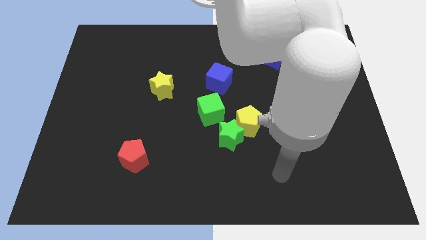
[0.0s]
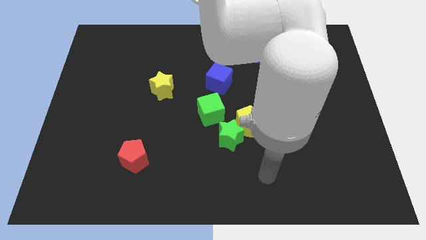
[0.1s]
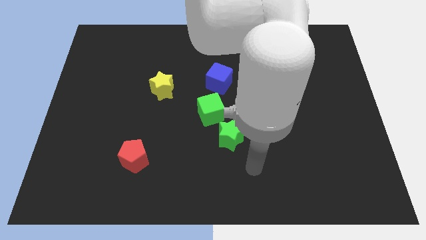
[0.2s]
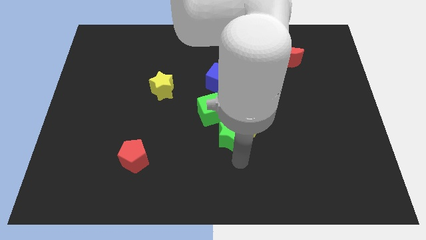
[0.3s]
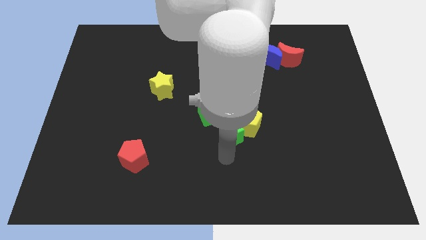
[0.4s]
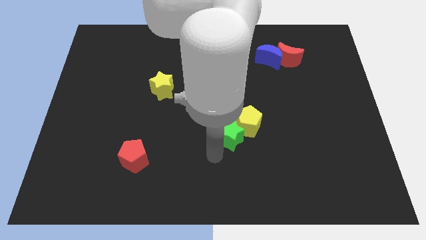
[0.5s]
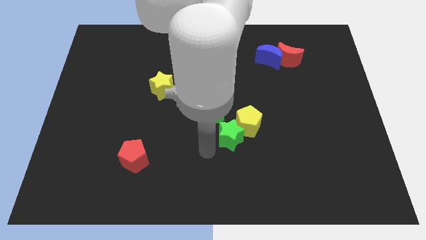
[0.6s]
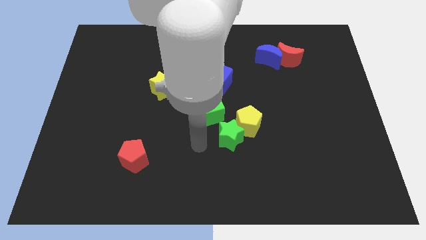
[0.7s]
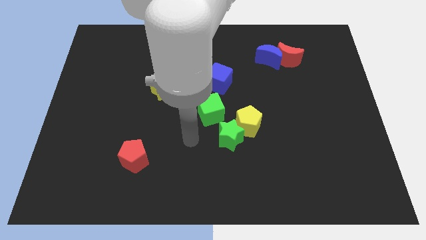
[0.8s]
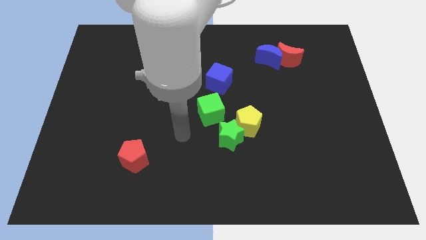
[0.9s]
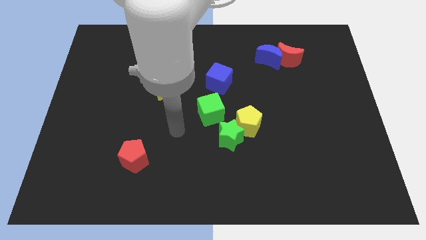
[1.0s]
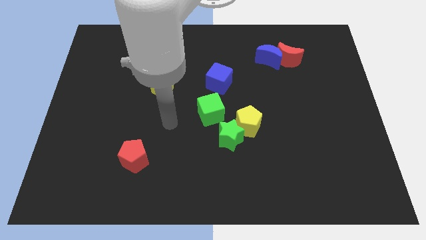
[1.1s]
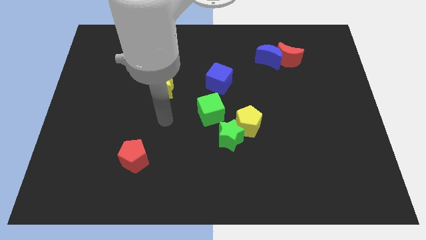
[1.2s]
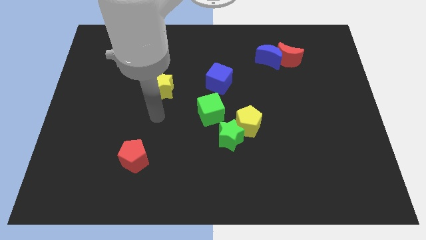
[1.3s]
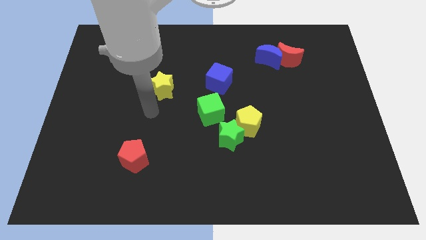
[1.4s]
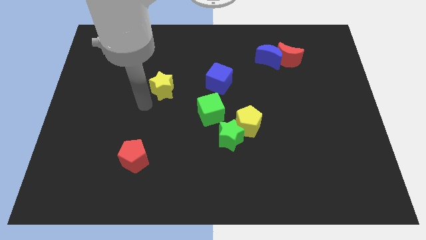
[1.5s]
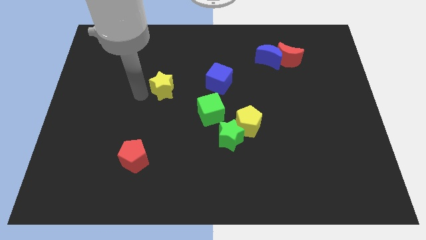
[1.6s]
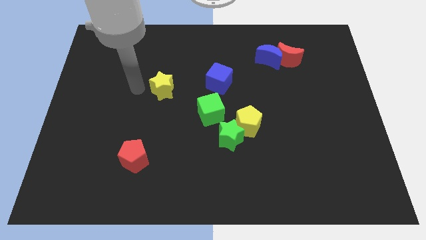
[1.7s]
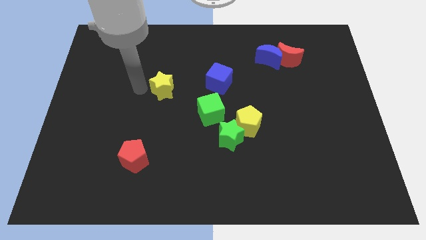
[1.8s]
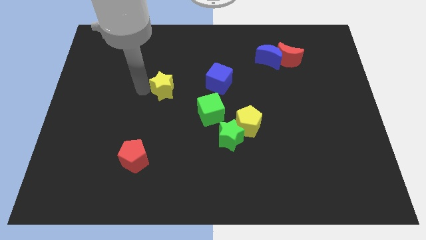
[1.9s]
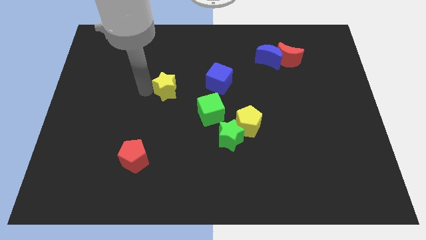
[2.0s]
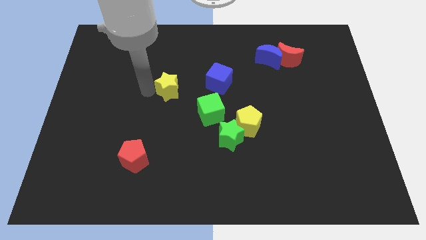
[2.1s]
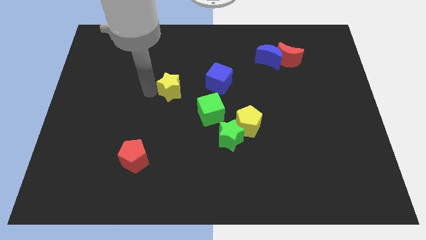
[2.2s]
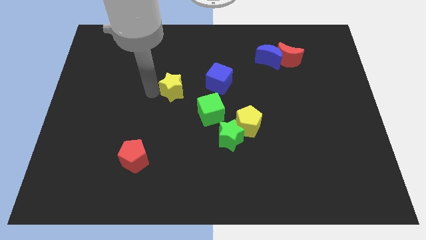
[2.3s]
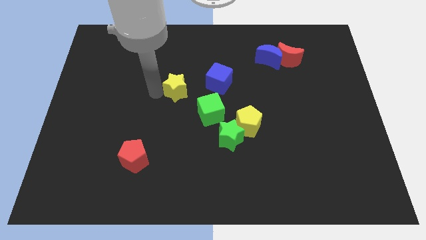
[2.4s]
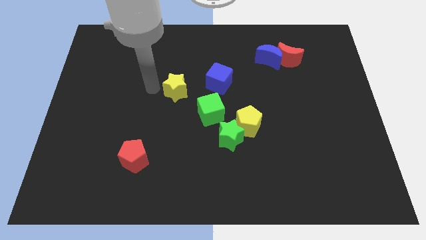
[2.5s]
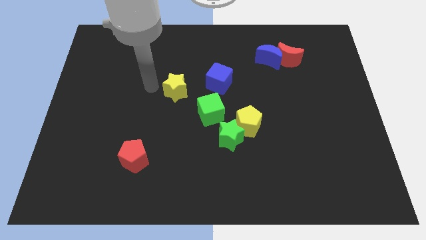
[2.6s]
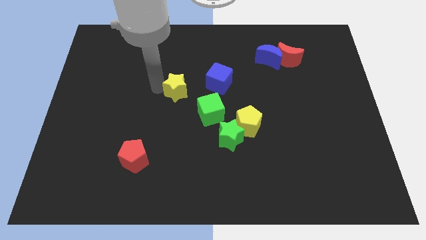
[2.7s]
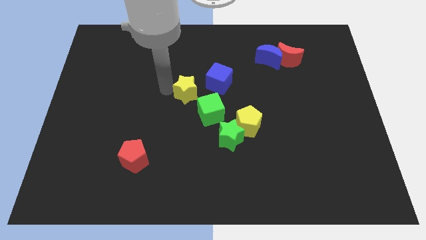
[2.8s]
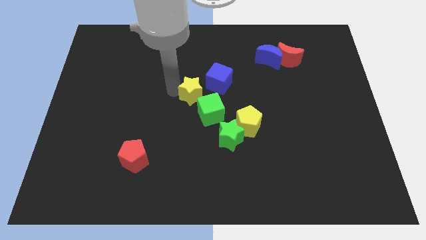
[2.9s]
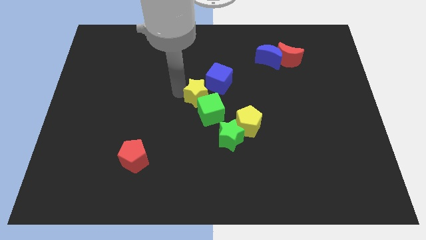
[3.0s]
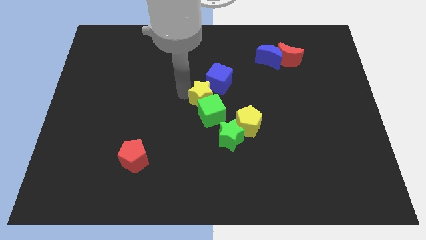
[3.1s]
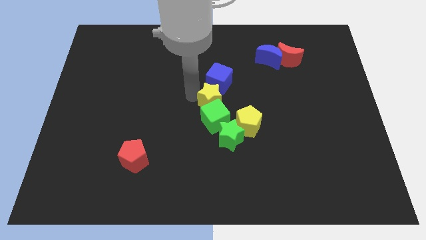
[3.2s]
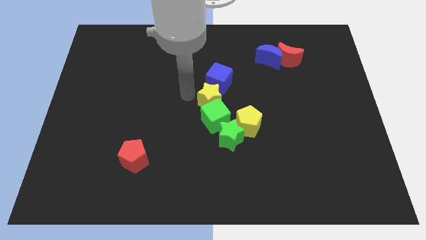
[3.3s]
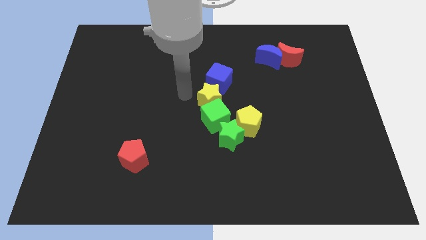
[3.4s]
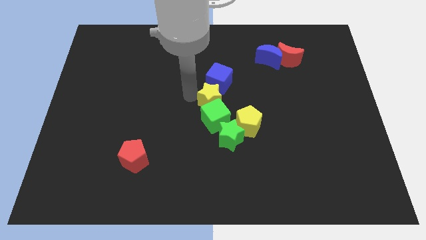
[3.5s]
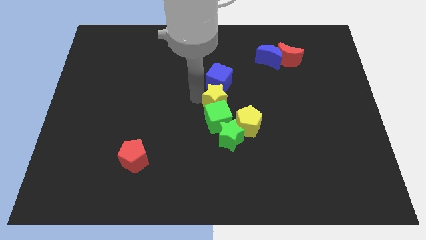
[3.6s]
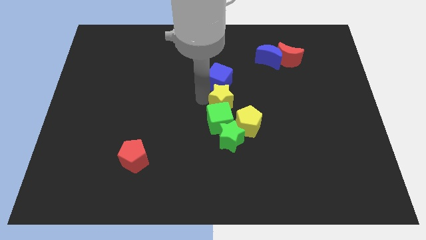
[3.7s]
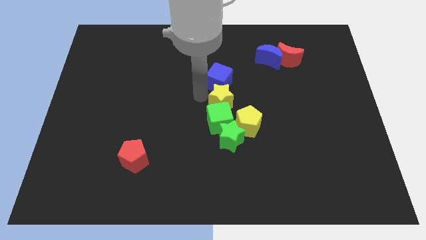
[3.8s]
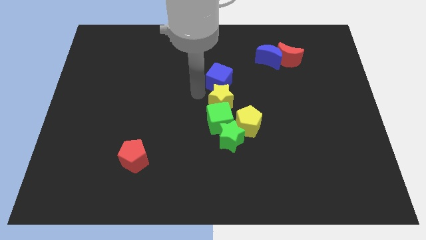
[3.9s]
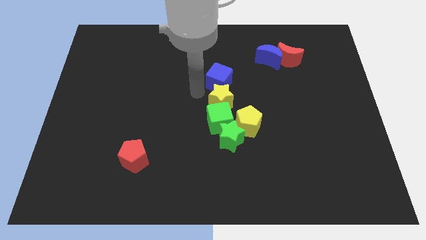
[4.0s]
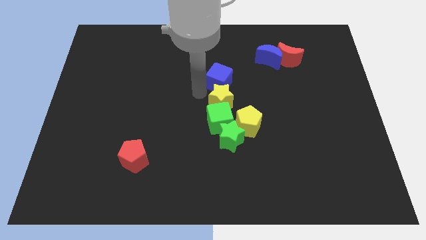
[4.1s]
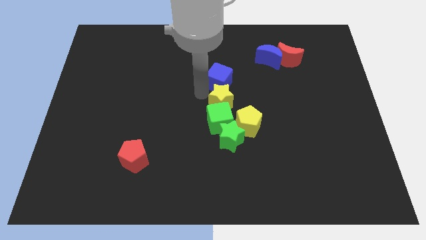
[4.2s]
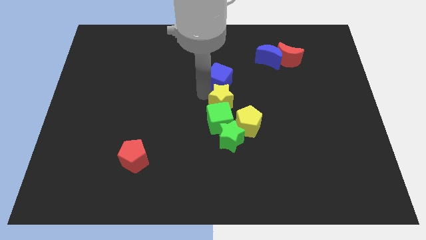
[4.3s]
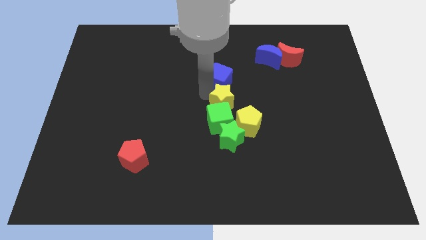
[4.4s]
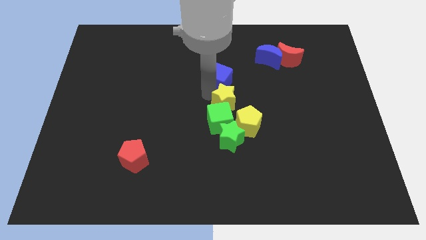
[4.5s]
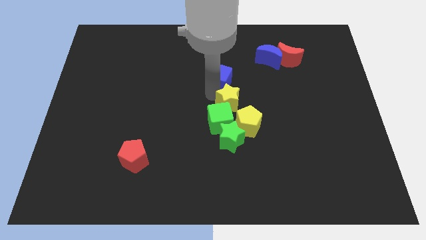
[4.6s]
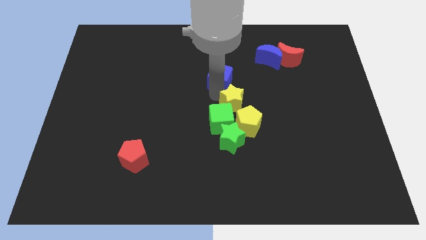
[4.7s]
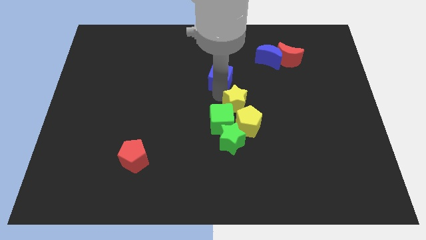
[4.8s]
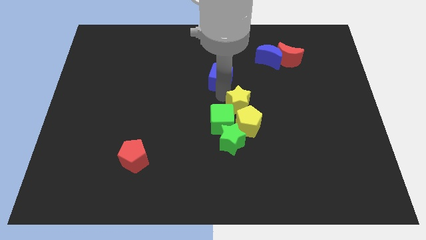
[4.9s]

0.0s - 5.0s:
put the yellow star close to the yellow pentagon

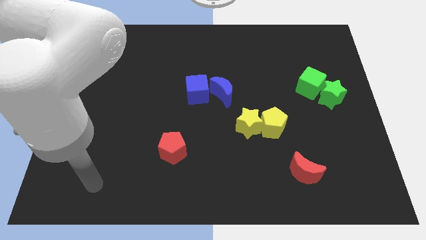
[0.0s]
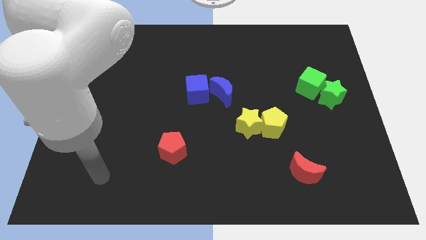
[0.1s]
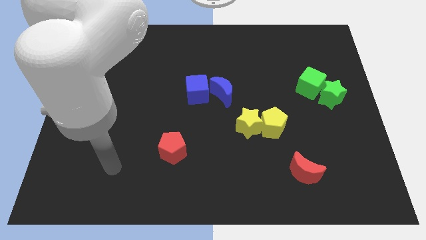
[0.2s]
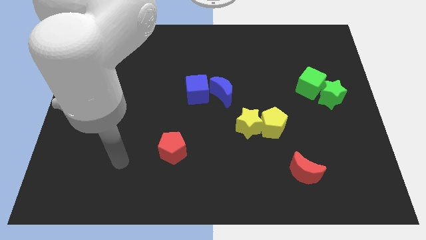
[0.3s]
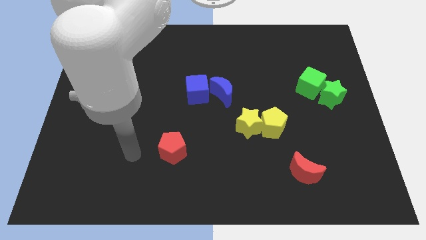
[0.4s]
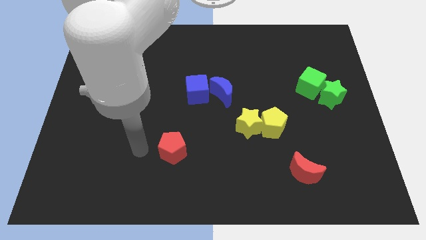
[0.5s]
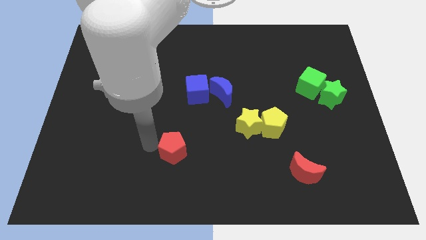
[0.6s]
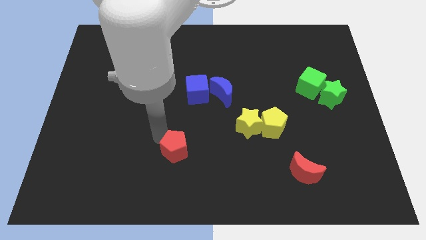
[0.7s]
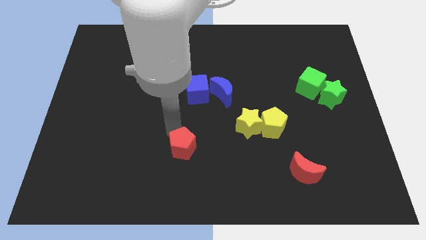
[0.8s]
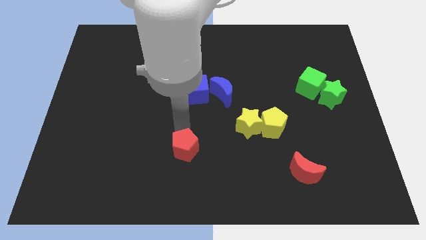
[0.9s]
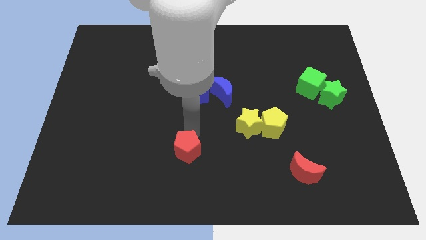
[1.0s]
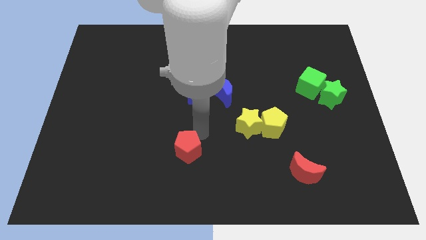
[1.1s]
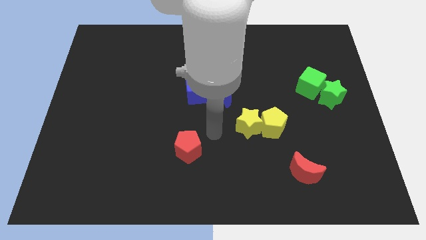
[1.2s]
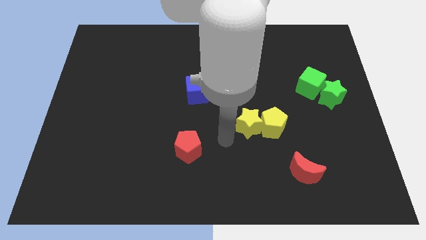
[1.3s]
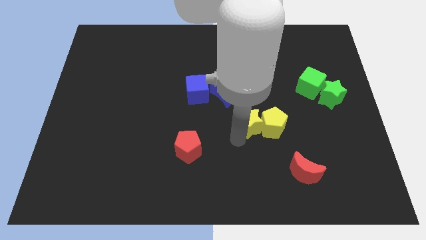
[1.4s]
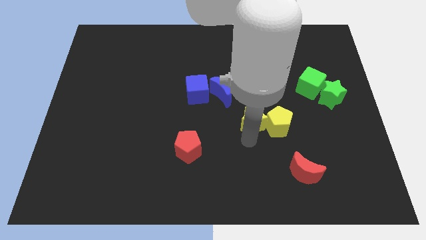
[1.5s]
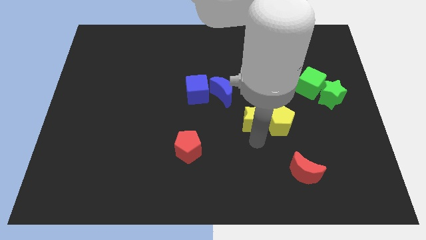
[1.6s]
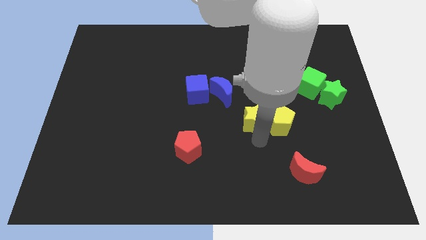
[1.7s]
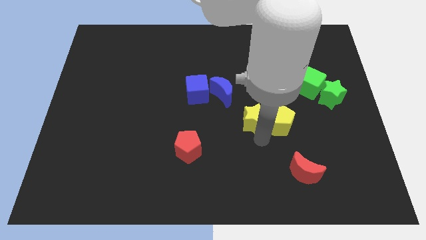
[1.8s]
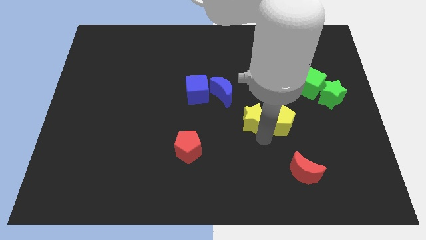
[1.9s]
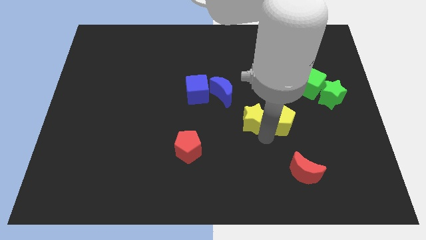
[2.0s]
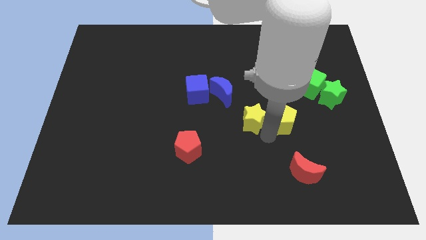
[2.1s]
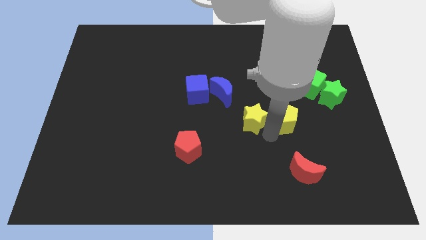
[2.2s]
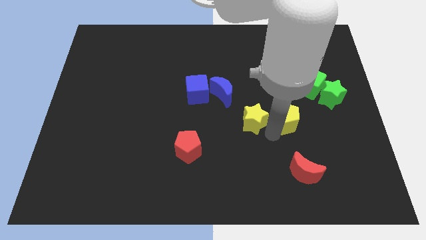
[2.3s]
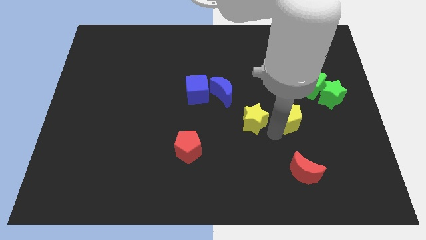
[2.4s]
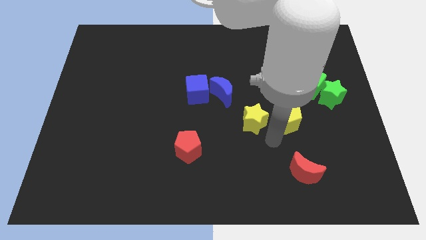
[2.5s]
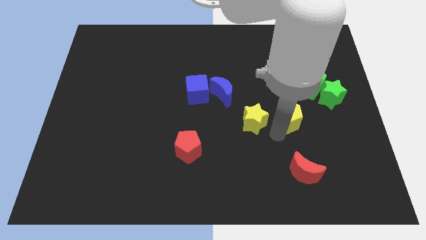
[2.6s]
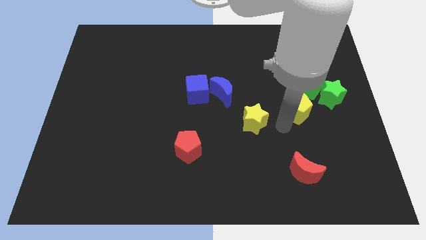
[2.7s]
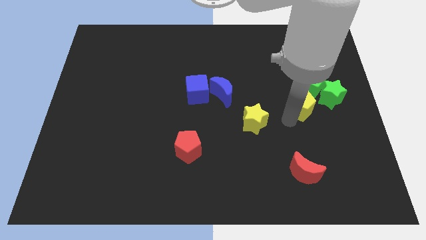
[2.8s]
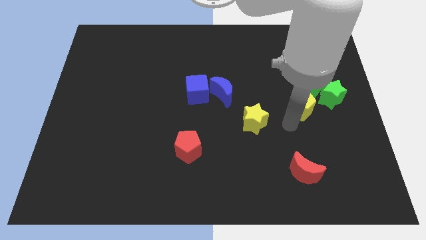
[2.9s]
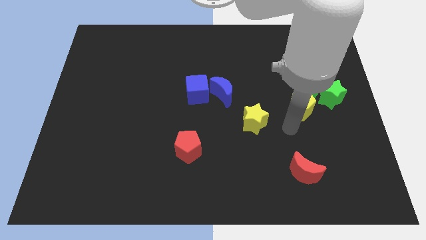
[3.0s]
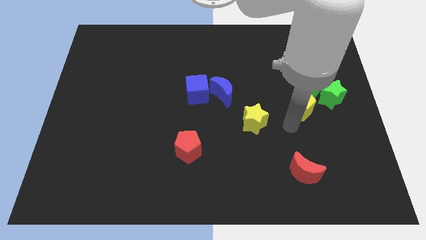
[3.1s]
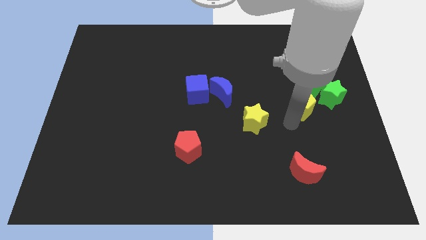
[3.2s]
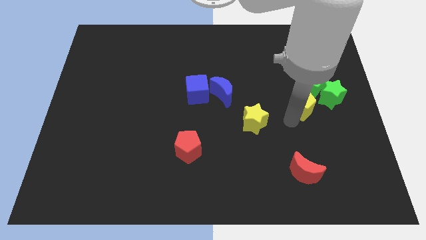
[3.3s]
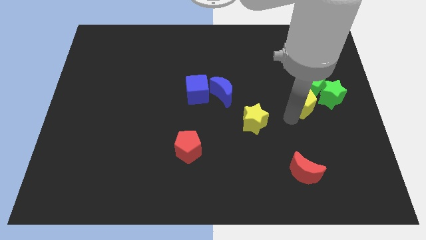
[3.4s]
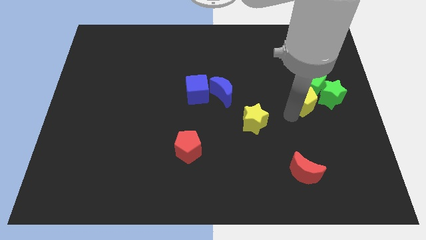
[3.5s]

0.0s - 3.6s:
slide the yellow pentagon next to the green cube
